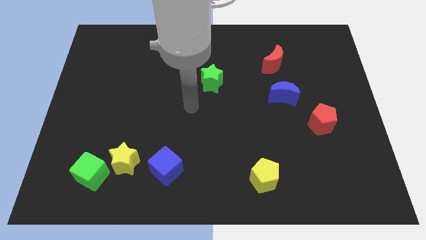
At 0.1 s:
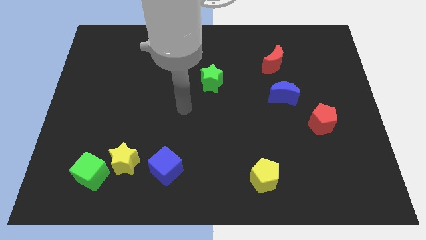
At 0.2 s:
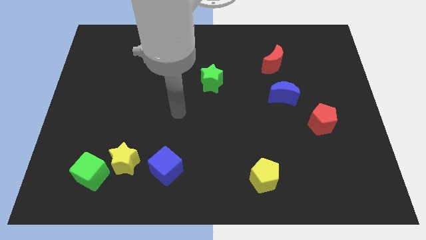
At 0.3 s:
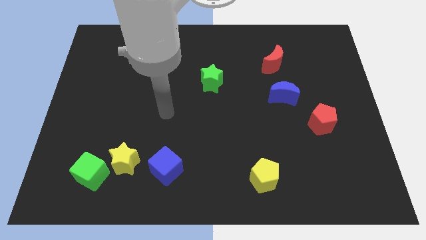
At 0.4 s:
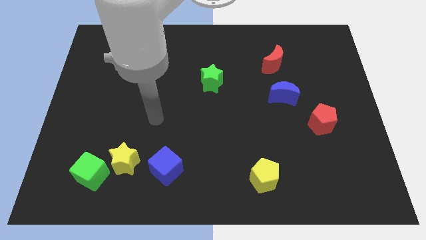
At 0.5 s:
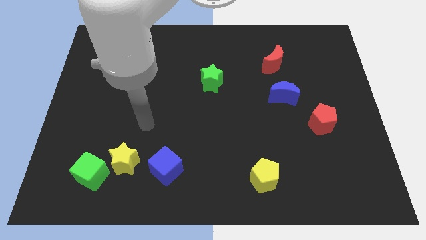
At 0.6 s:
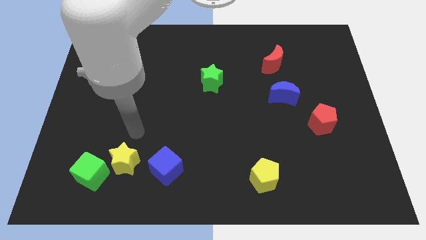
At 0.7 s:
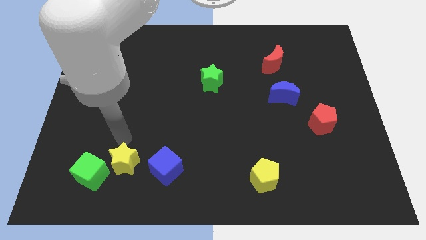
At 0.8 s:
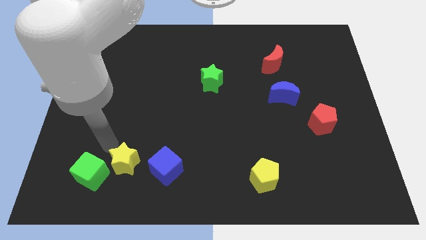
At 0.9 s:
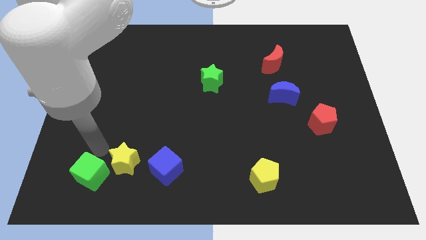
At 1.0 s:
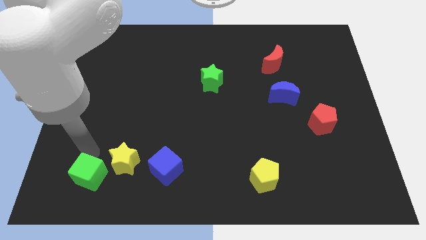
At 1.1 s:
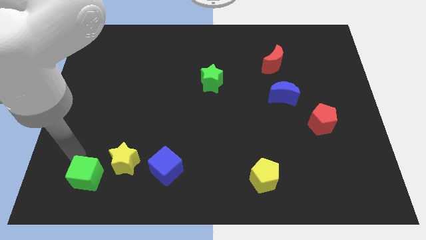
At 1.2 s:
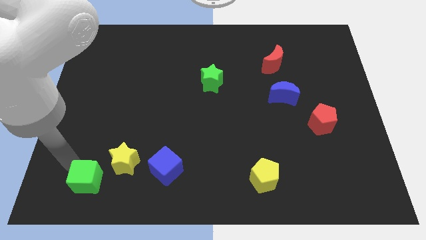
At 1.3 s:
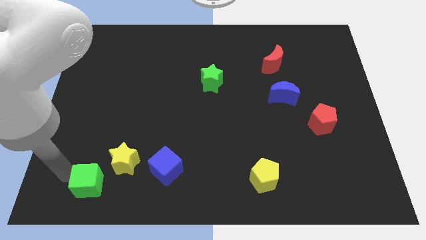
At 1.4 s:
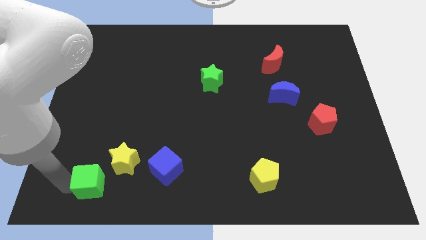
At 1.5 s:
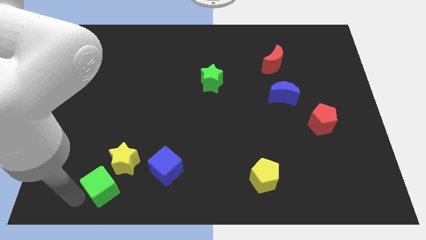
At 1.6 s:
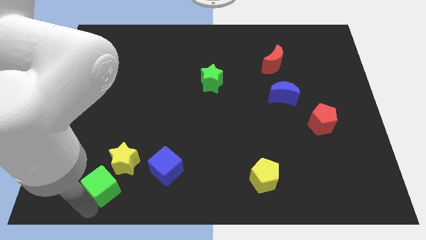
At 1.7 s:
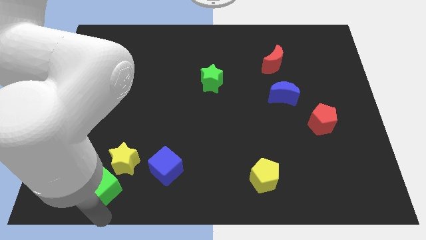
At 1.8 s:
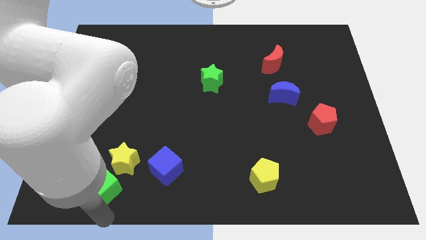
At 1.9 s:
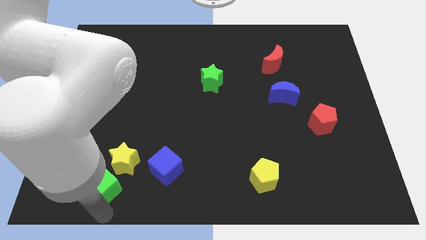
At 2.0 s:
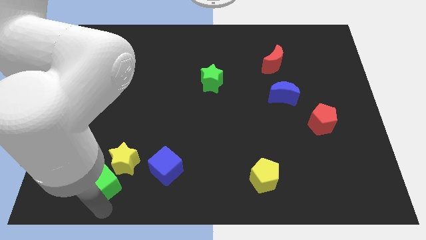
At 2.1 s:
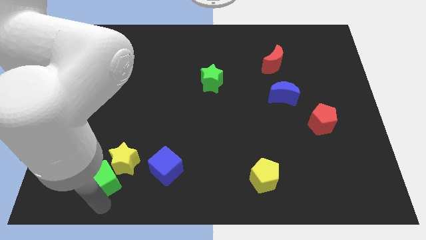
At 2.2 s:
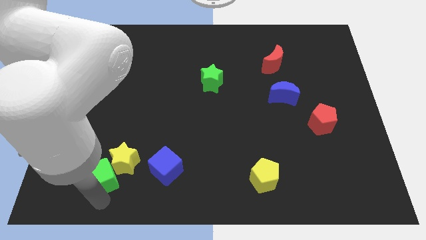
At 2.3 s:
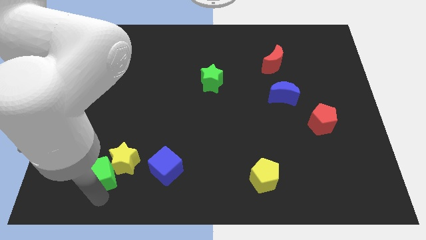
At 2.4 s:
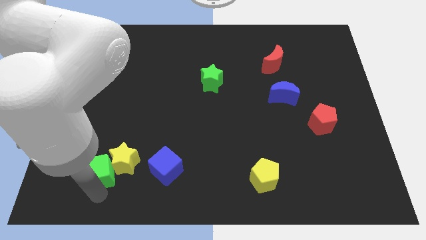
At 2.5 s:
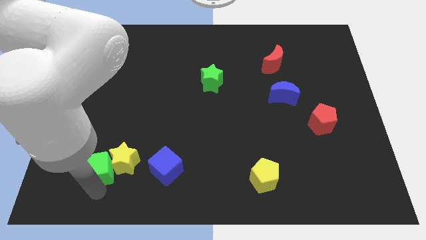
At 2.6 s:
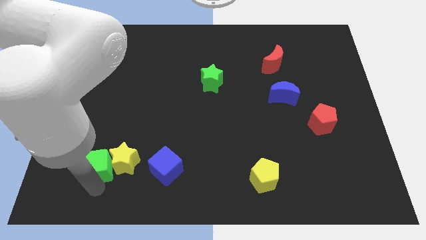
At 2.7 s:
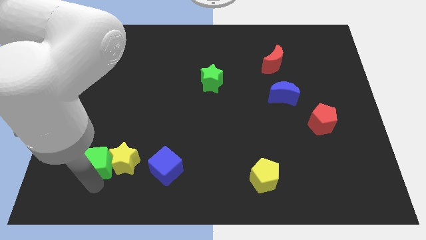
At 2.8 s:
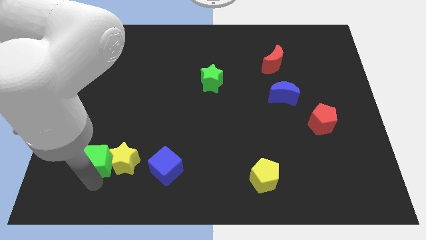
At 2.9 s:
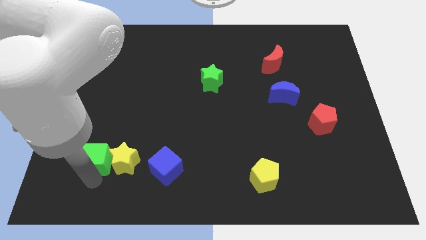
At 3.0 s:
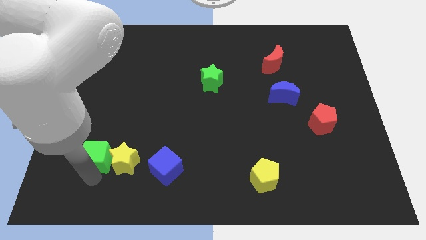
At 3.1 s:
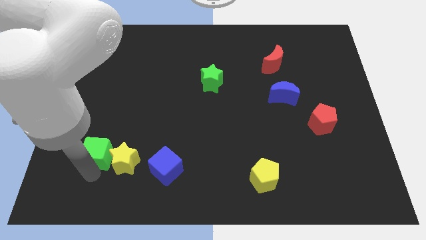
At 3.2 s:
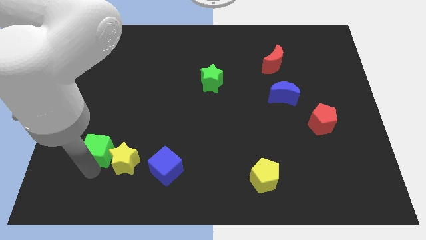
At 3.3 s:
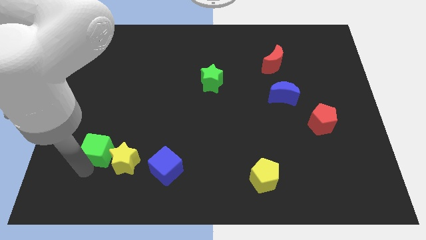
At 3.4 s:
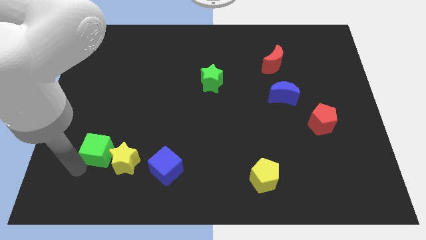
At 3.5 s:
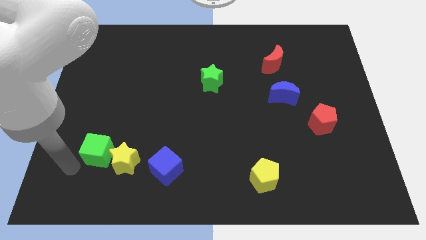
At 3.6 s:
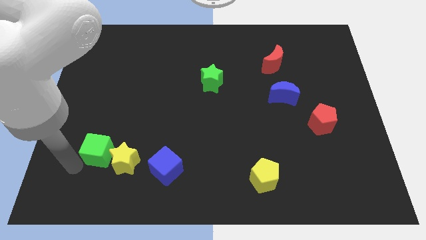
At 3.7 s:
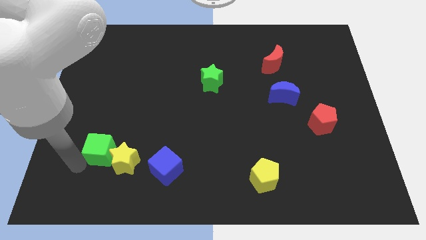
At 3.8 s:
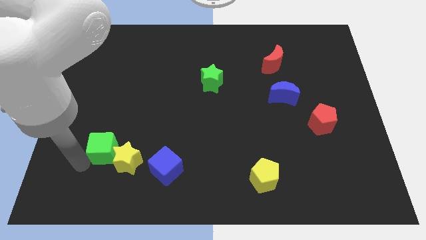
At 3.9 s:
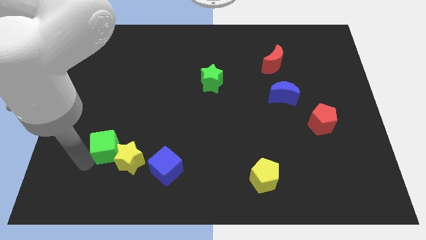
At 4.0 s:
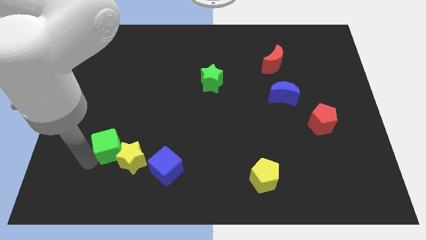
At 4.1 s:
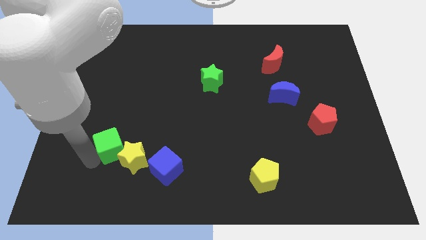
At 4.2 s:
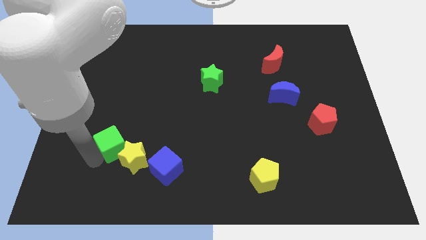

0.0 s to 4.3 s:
slightly push the green cube up and to the right diagonally

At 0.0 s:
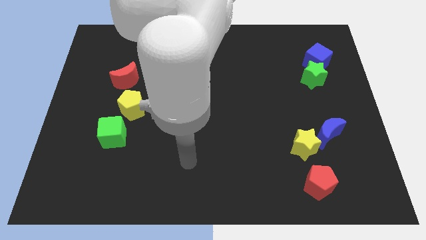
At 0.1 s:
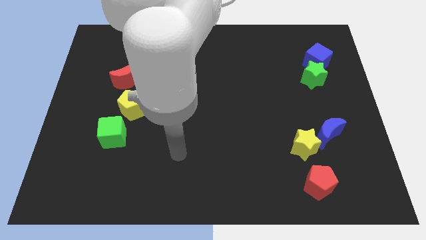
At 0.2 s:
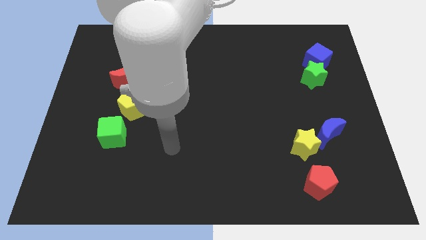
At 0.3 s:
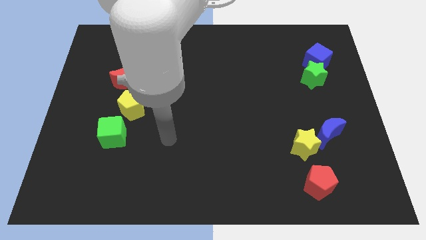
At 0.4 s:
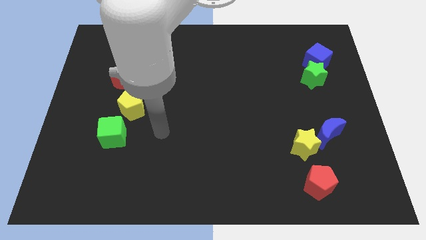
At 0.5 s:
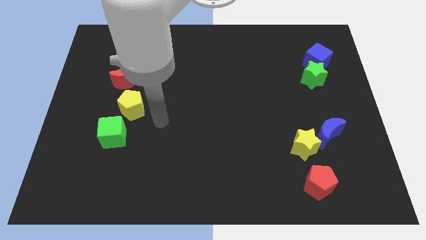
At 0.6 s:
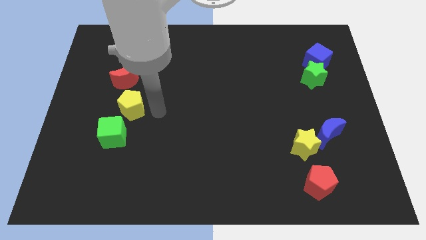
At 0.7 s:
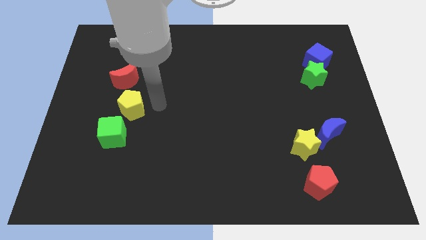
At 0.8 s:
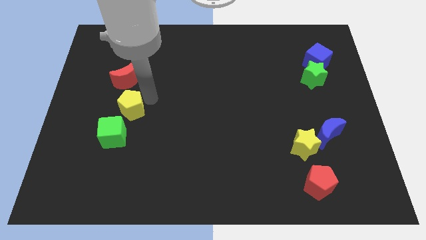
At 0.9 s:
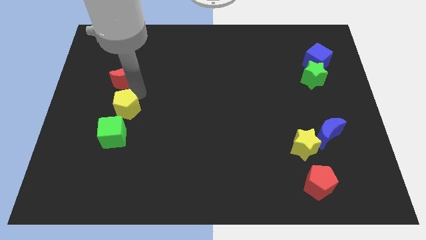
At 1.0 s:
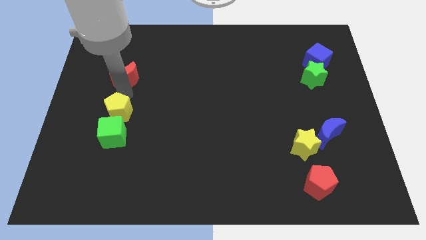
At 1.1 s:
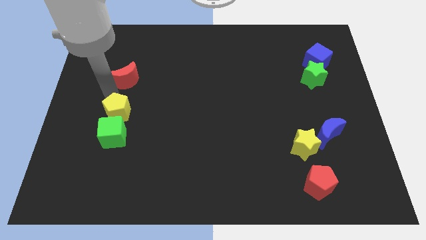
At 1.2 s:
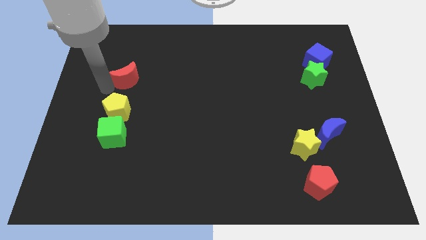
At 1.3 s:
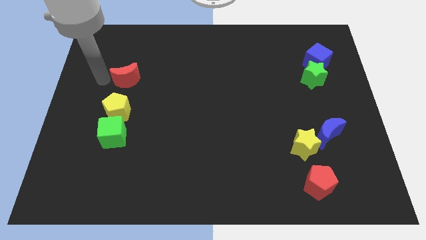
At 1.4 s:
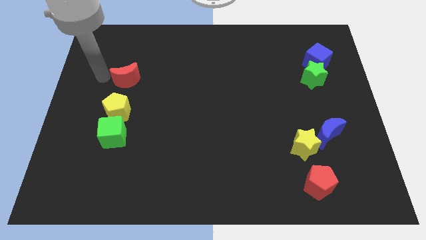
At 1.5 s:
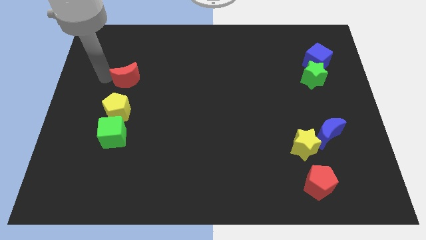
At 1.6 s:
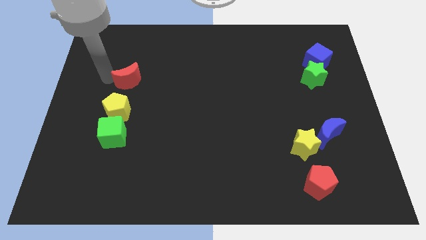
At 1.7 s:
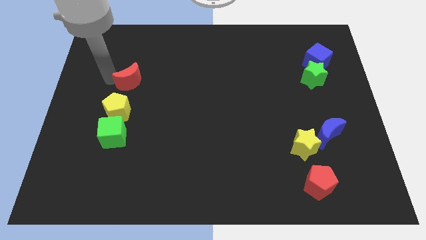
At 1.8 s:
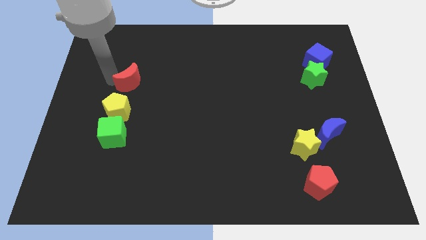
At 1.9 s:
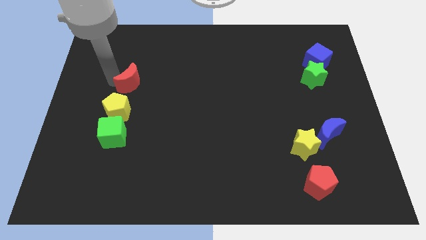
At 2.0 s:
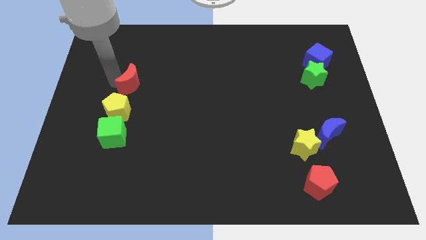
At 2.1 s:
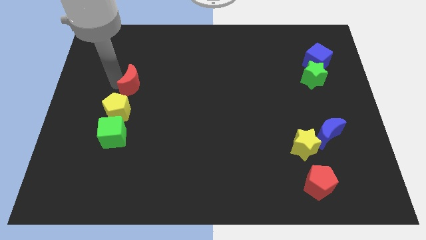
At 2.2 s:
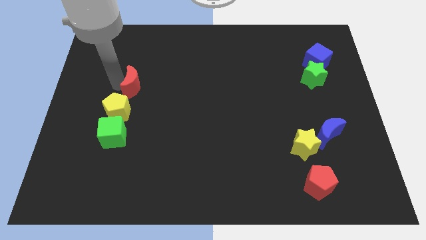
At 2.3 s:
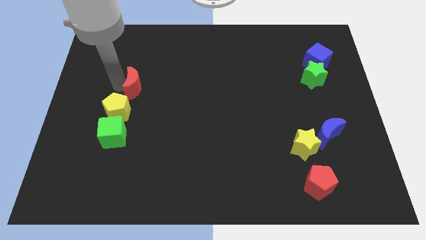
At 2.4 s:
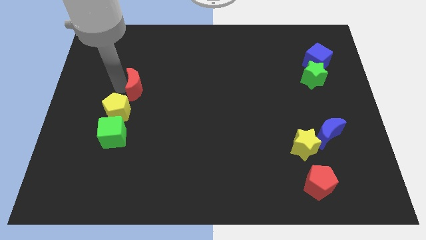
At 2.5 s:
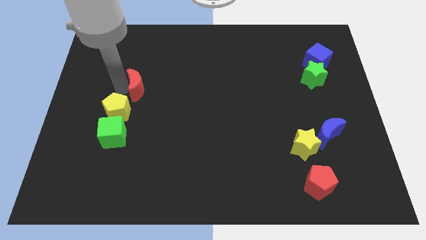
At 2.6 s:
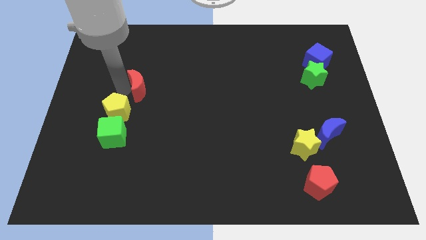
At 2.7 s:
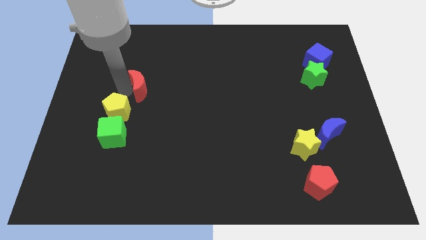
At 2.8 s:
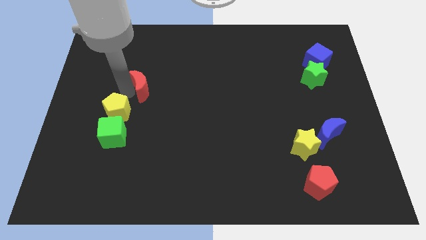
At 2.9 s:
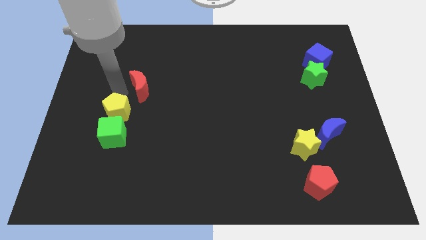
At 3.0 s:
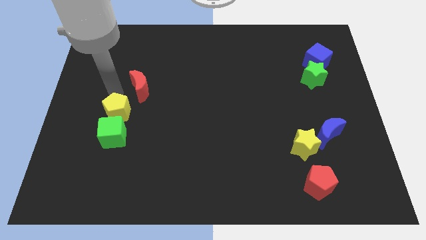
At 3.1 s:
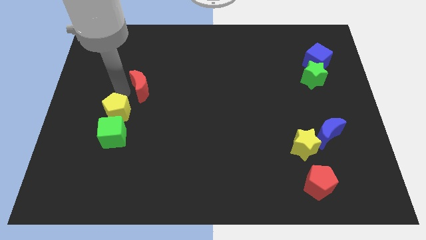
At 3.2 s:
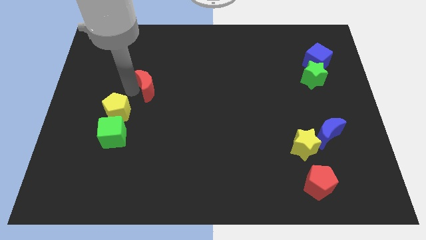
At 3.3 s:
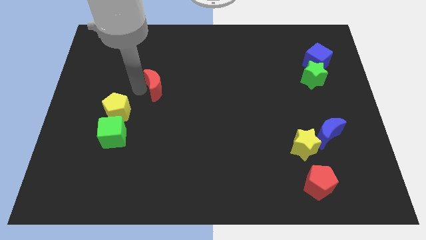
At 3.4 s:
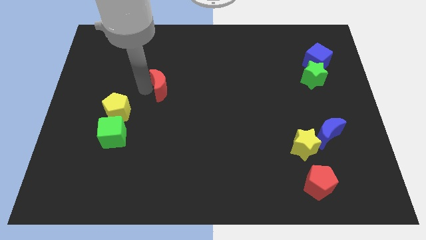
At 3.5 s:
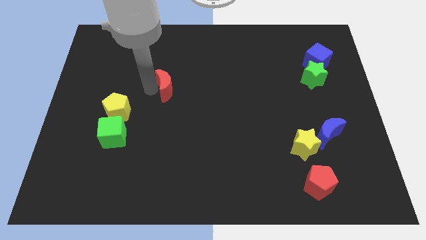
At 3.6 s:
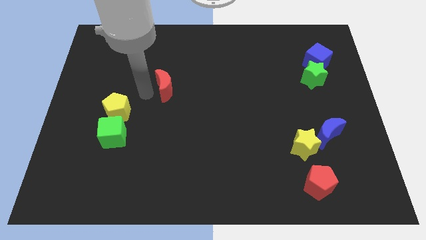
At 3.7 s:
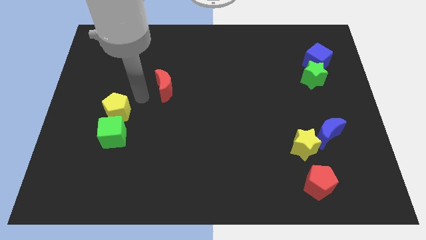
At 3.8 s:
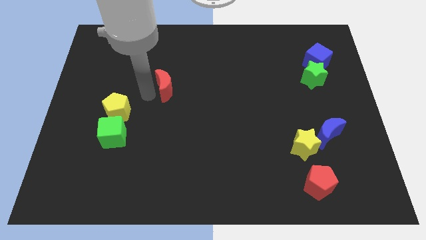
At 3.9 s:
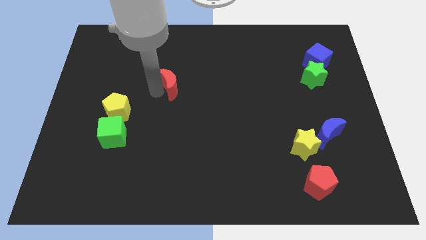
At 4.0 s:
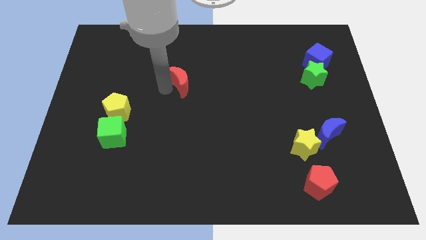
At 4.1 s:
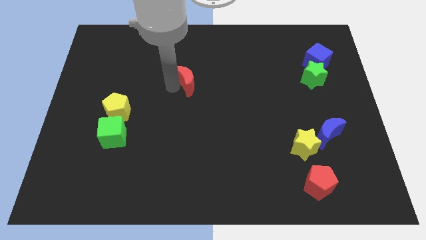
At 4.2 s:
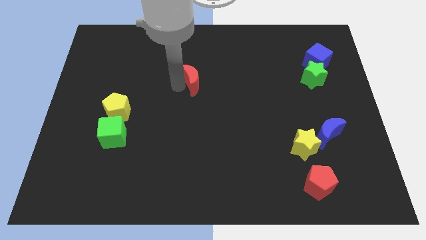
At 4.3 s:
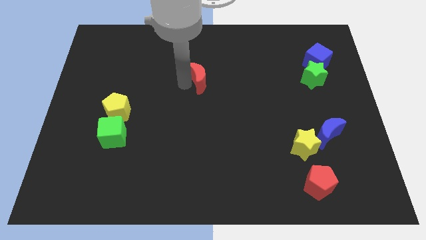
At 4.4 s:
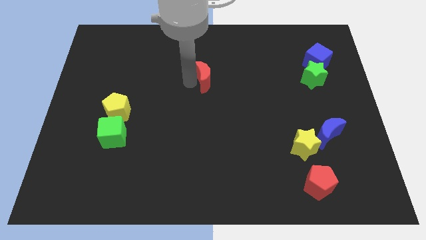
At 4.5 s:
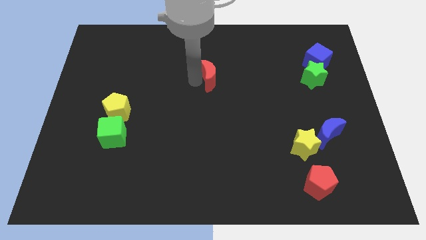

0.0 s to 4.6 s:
move the red moon right
